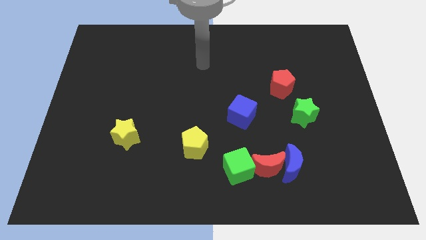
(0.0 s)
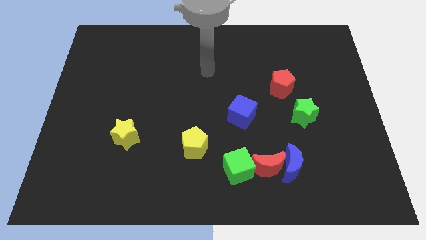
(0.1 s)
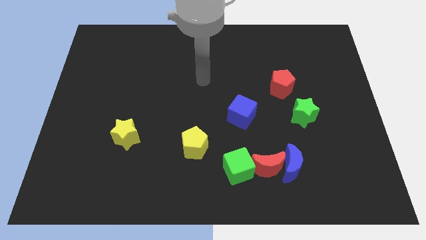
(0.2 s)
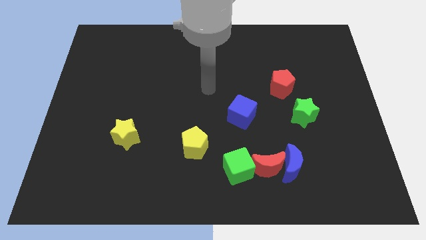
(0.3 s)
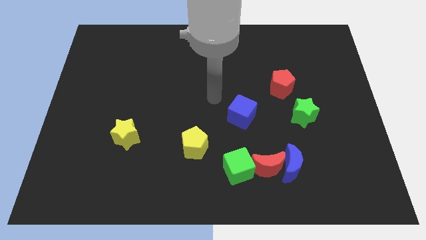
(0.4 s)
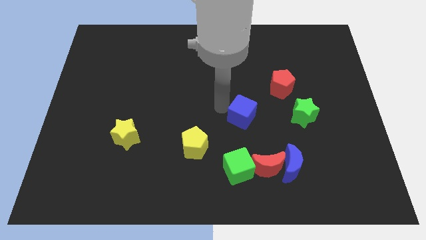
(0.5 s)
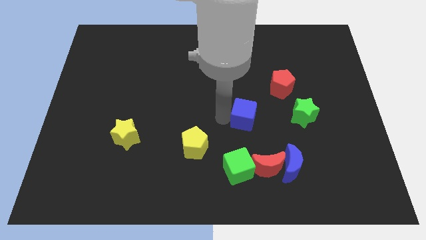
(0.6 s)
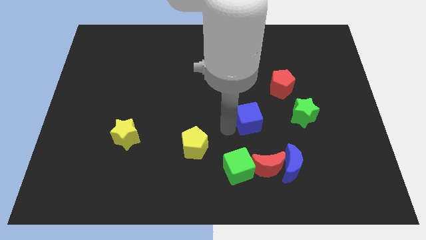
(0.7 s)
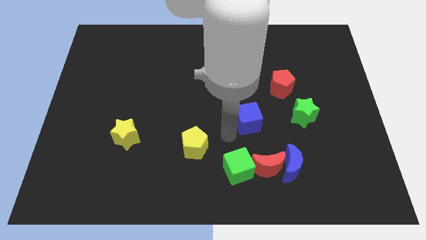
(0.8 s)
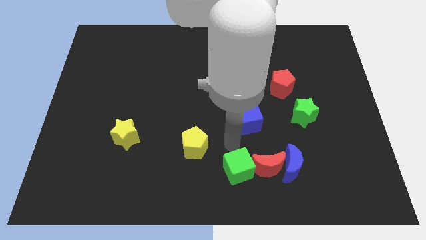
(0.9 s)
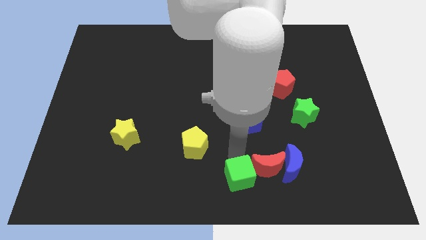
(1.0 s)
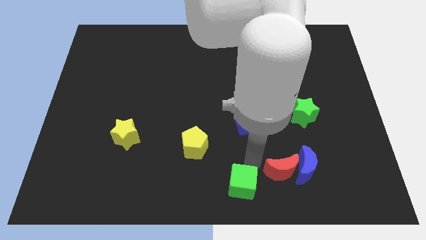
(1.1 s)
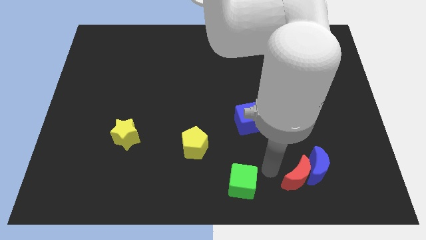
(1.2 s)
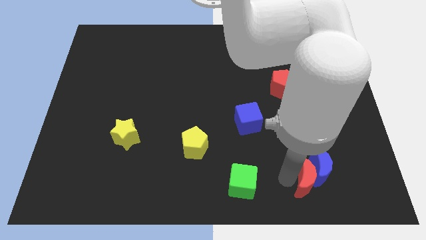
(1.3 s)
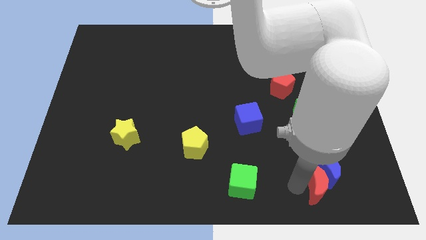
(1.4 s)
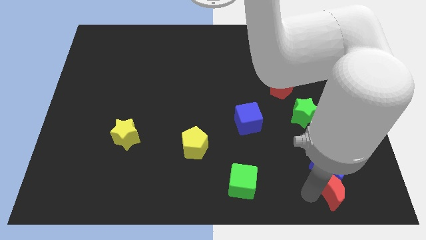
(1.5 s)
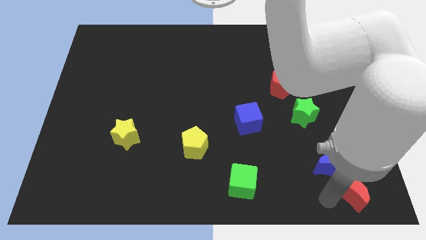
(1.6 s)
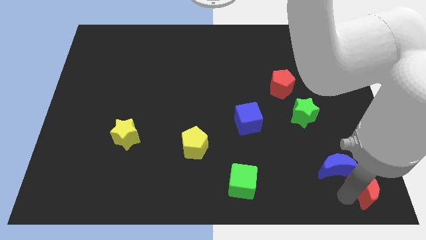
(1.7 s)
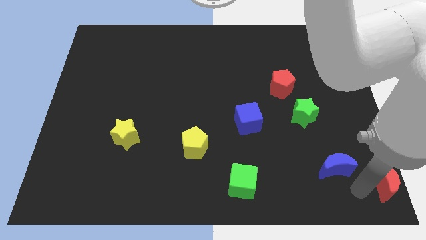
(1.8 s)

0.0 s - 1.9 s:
separate the blue moon from the red moon

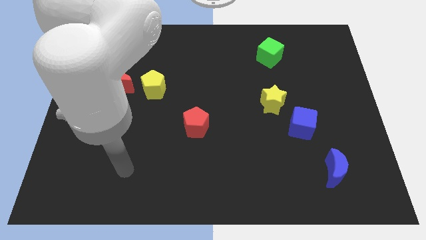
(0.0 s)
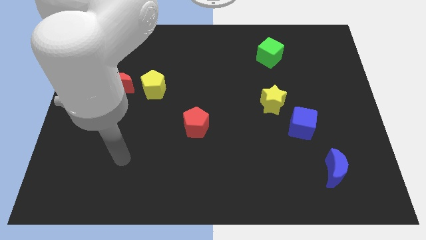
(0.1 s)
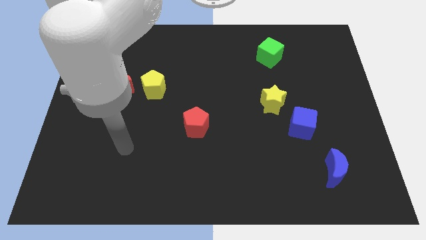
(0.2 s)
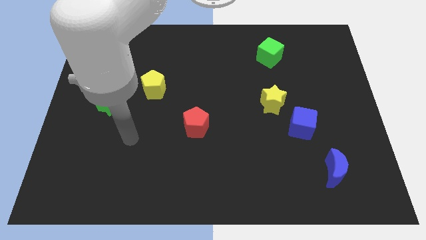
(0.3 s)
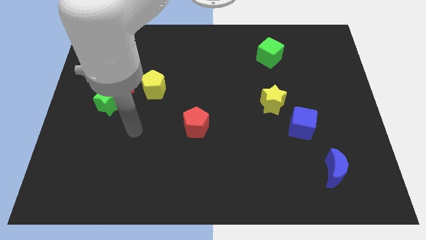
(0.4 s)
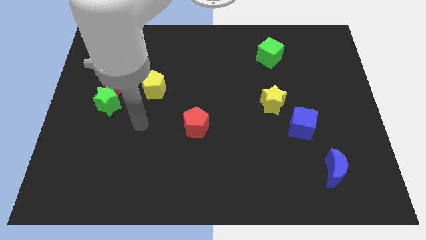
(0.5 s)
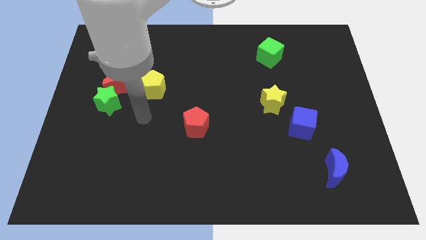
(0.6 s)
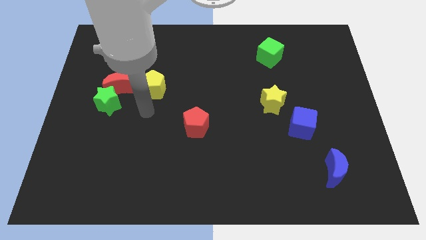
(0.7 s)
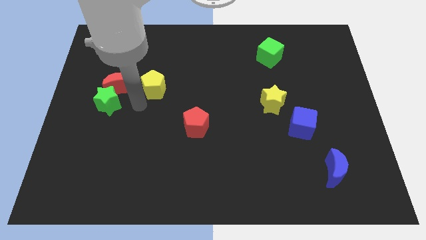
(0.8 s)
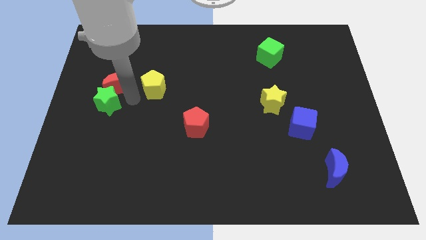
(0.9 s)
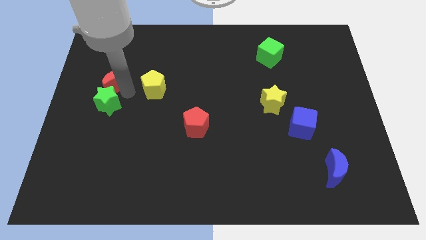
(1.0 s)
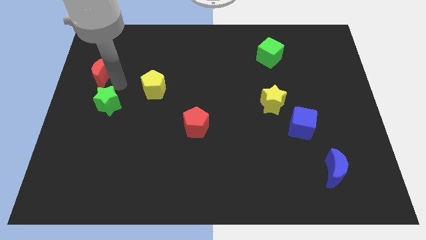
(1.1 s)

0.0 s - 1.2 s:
separate the green star from the red moon

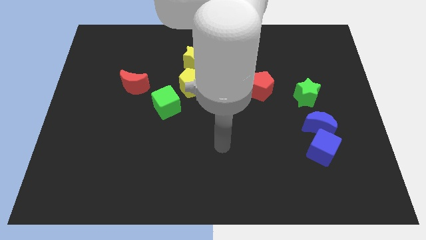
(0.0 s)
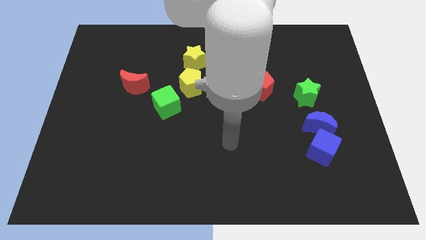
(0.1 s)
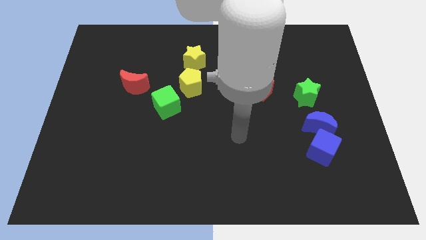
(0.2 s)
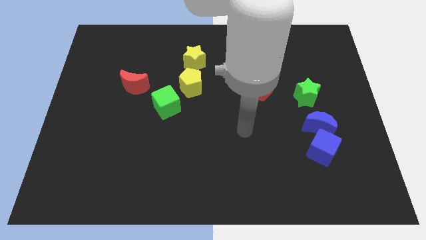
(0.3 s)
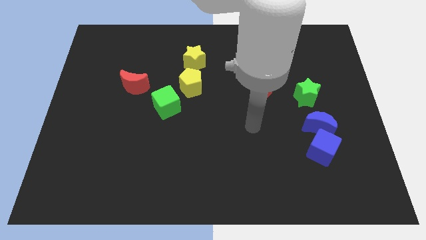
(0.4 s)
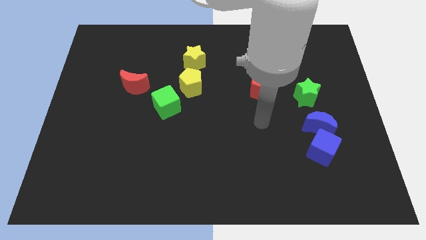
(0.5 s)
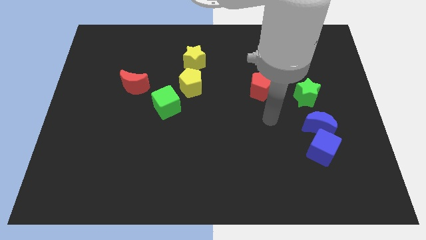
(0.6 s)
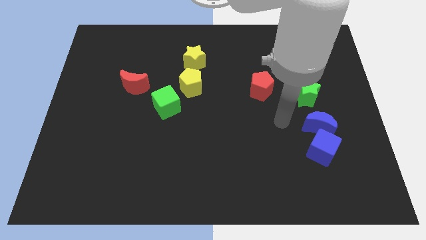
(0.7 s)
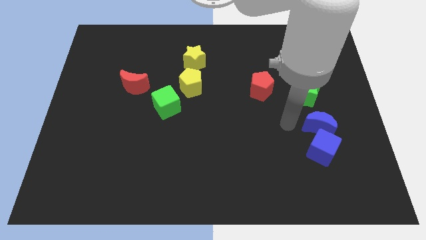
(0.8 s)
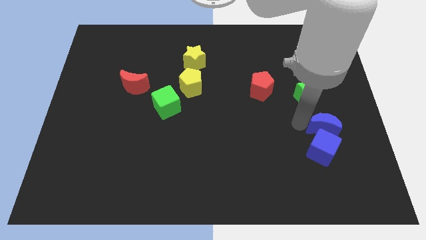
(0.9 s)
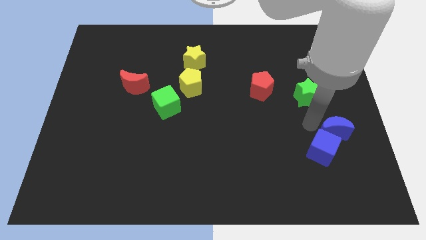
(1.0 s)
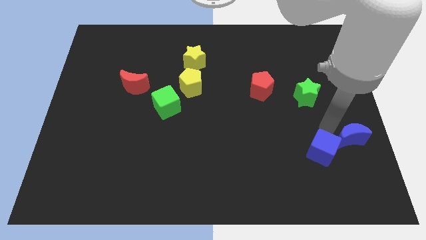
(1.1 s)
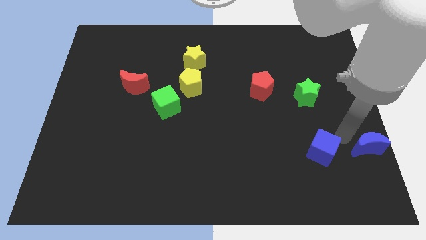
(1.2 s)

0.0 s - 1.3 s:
pull the blue cube apart from the blue moon

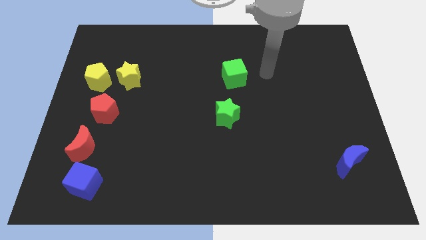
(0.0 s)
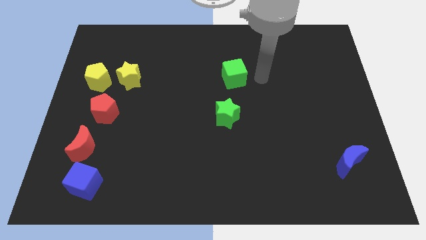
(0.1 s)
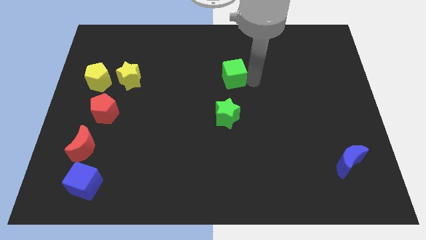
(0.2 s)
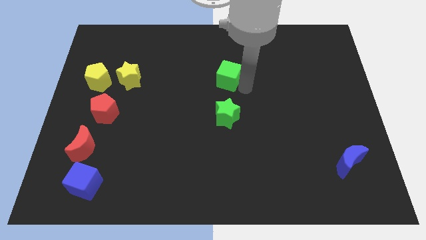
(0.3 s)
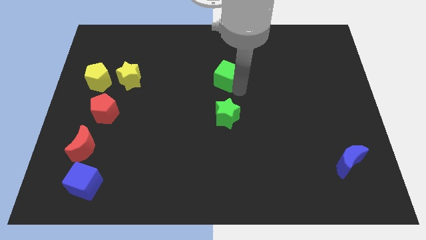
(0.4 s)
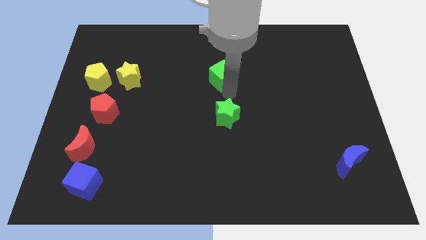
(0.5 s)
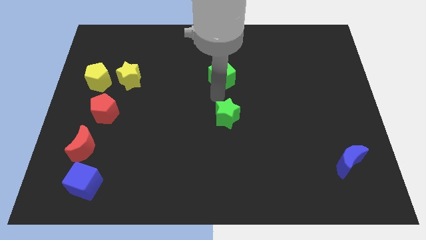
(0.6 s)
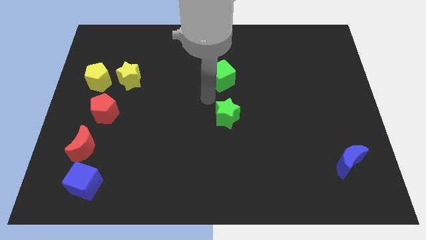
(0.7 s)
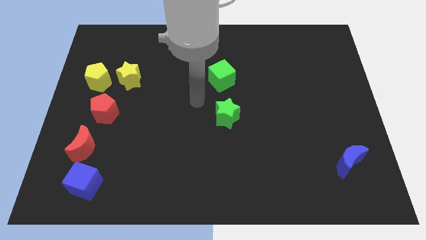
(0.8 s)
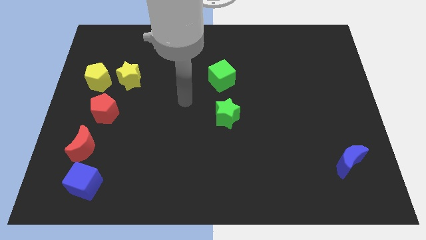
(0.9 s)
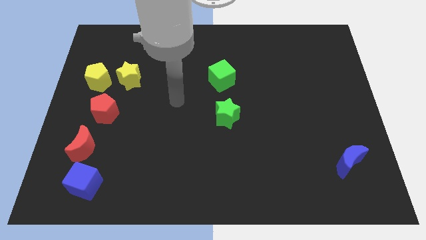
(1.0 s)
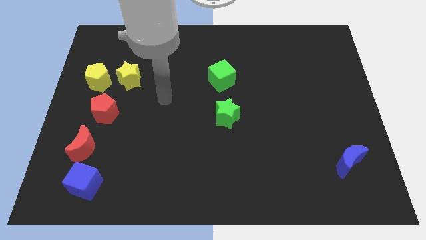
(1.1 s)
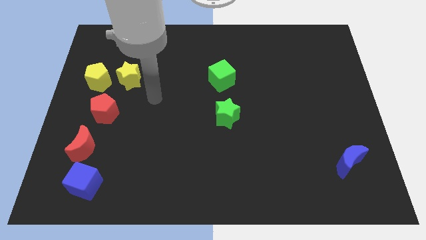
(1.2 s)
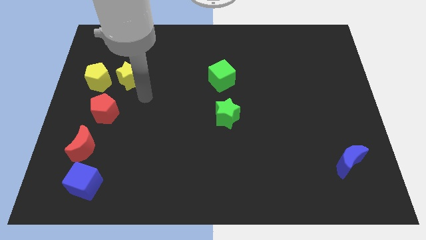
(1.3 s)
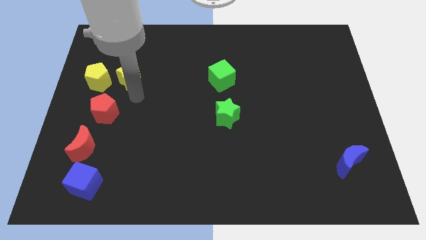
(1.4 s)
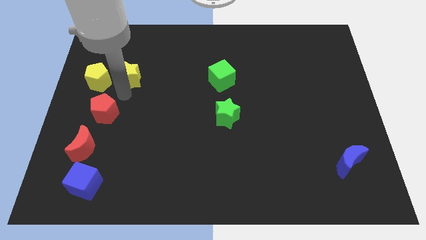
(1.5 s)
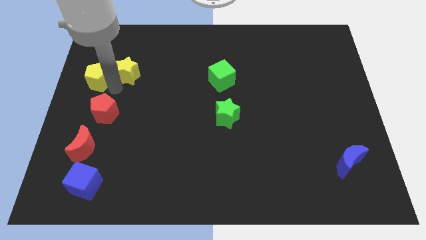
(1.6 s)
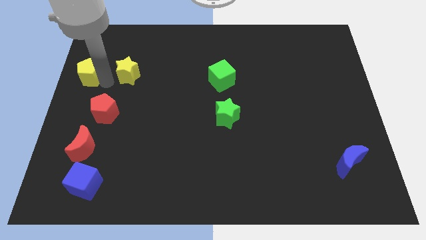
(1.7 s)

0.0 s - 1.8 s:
move the yellow star away from the yellow pentagon

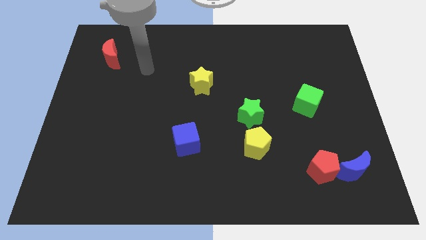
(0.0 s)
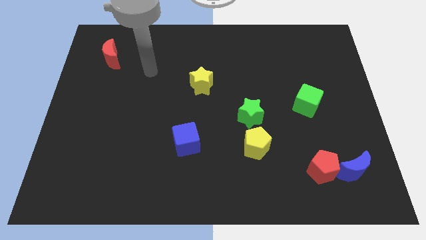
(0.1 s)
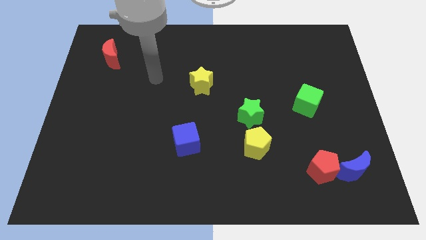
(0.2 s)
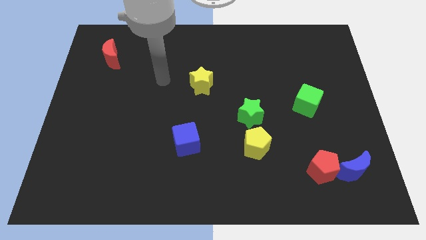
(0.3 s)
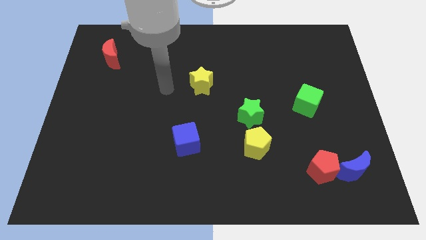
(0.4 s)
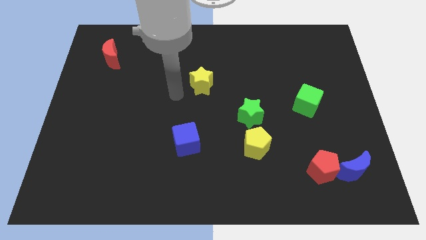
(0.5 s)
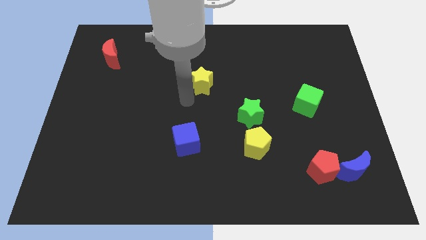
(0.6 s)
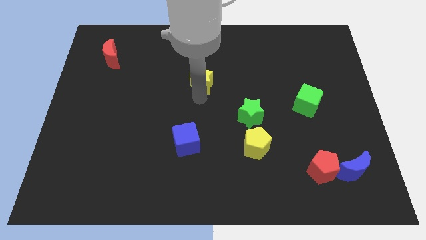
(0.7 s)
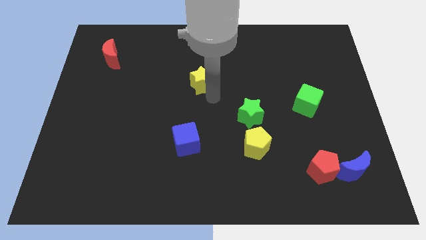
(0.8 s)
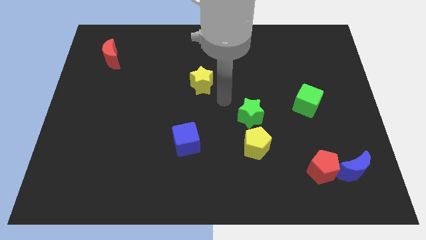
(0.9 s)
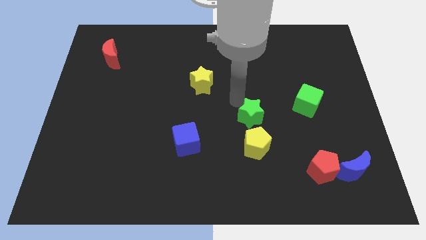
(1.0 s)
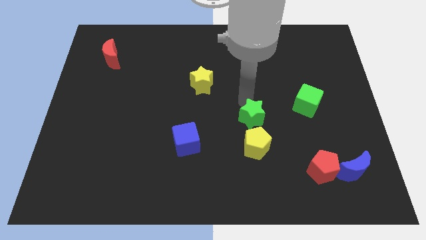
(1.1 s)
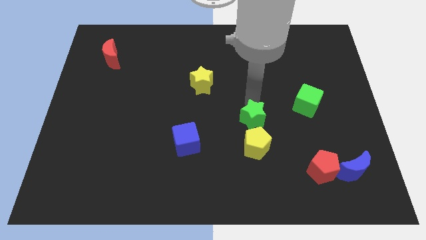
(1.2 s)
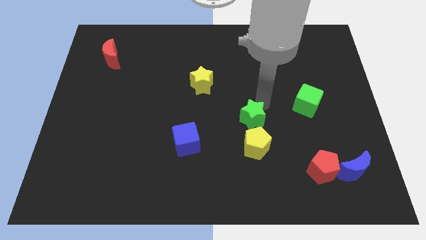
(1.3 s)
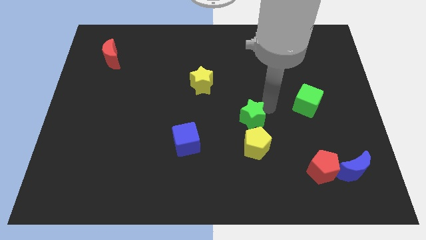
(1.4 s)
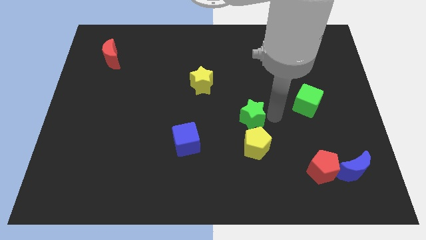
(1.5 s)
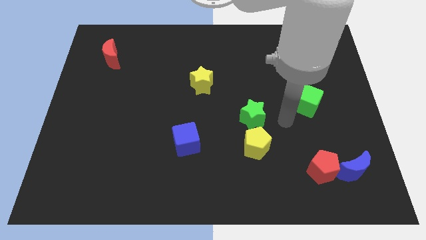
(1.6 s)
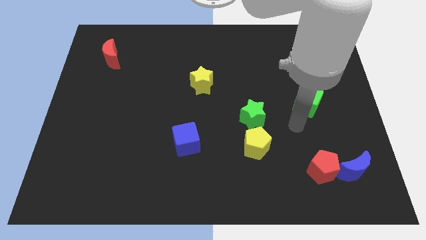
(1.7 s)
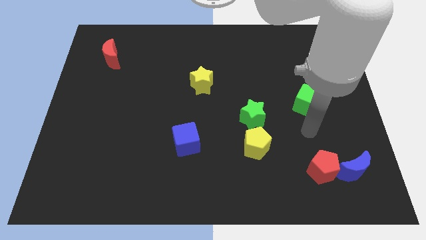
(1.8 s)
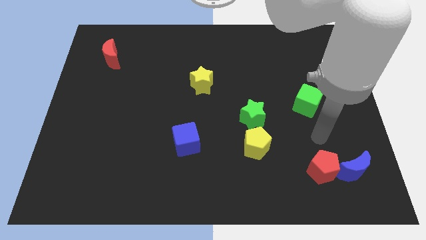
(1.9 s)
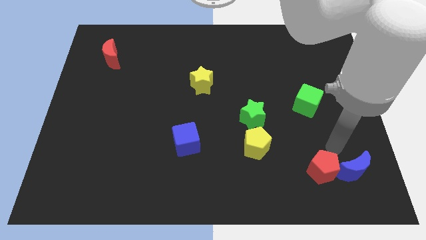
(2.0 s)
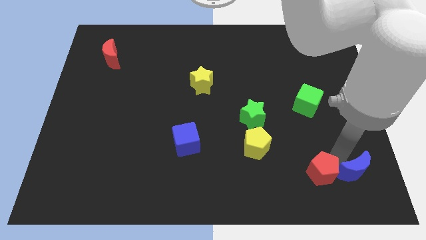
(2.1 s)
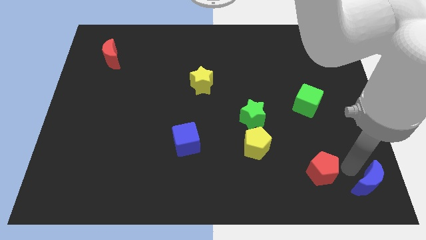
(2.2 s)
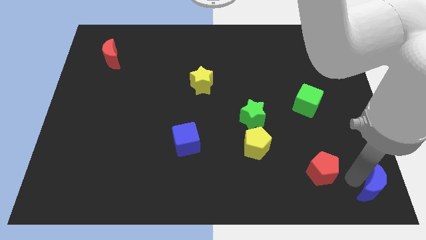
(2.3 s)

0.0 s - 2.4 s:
separate the red pentagon from the blue moon

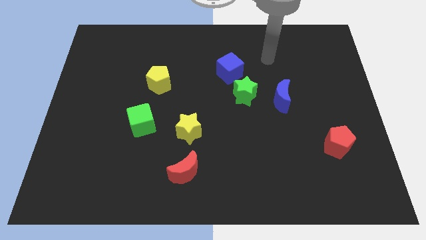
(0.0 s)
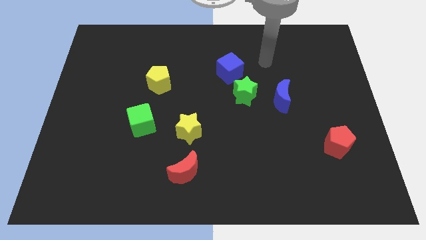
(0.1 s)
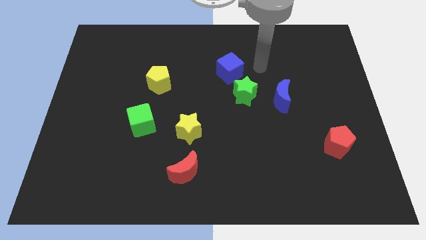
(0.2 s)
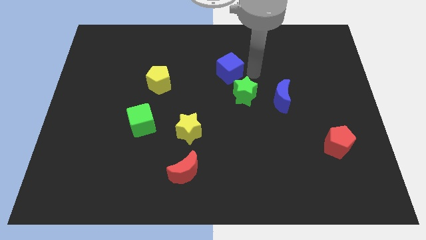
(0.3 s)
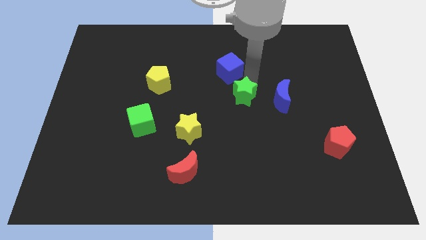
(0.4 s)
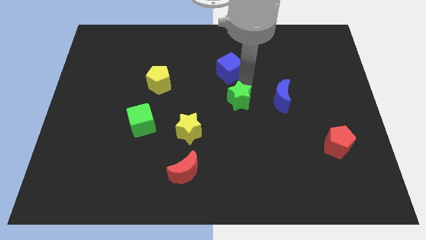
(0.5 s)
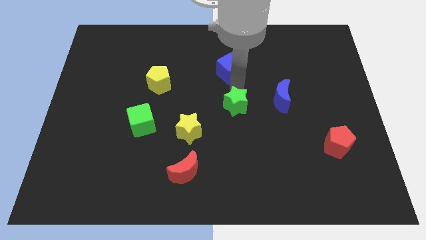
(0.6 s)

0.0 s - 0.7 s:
pull the blue cube apart from the green star
